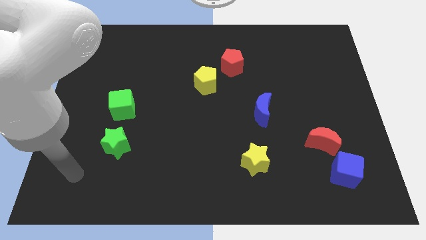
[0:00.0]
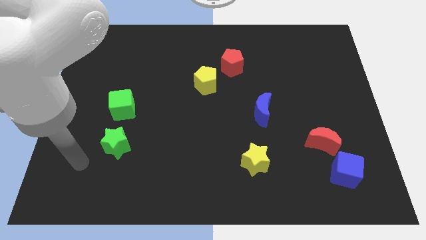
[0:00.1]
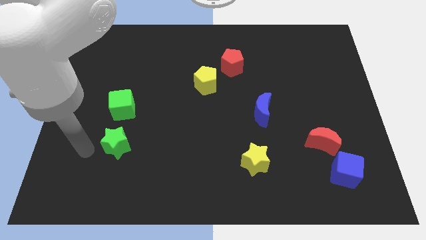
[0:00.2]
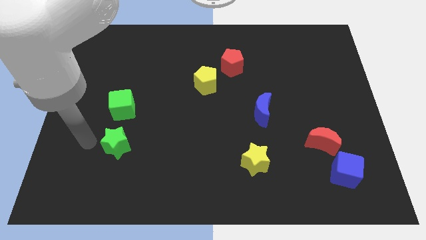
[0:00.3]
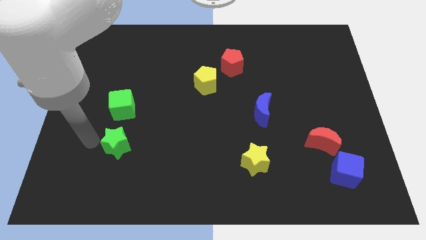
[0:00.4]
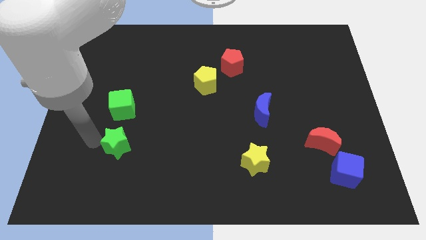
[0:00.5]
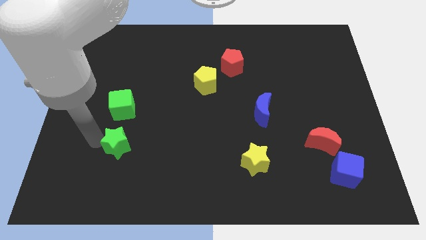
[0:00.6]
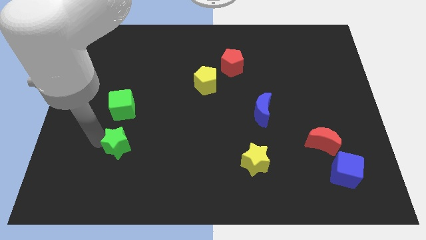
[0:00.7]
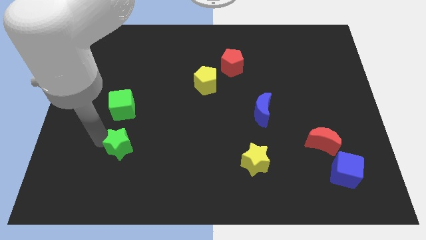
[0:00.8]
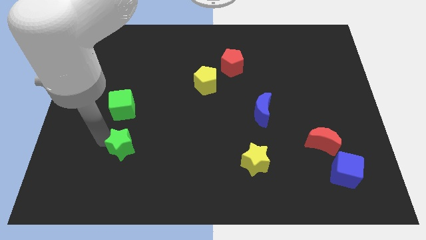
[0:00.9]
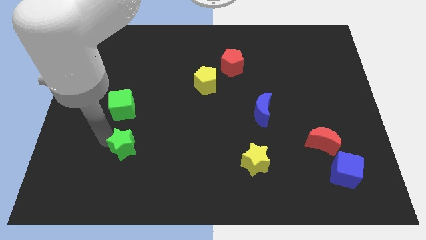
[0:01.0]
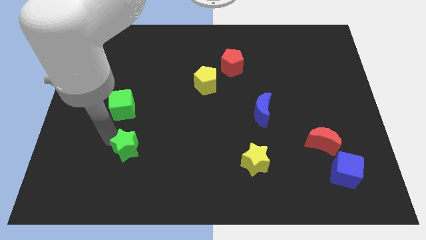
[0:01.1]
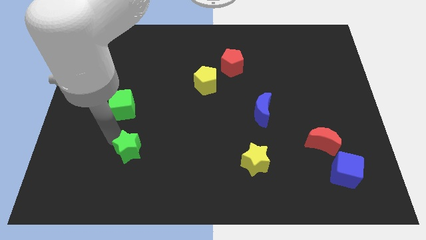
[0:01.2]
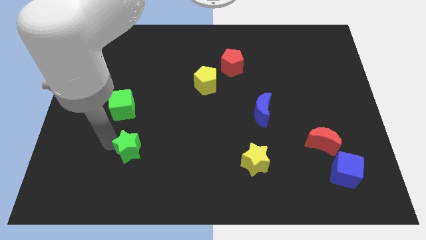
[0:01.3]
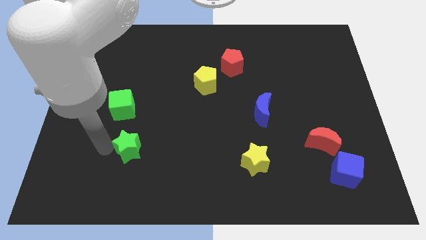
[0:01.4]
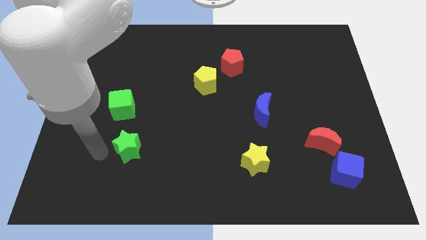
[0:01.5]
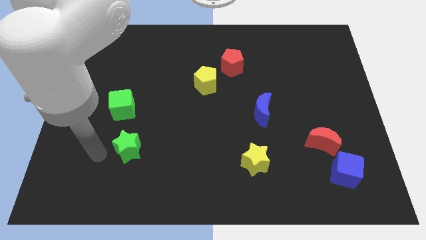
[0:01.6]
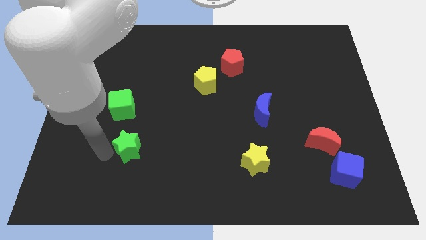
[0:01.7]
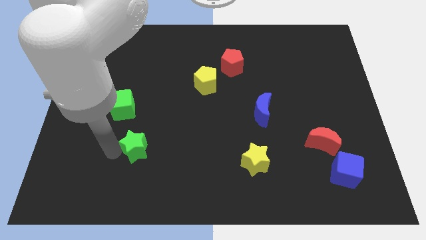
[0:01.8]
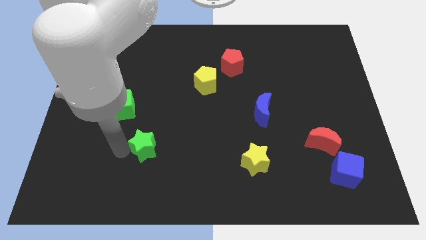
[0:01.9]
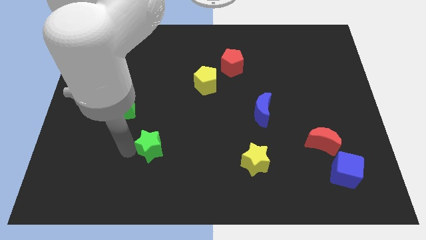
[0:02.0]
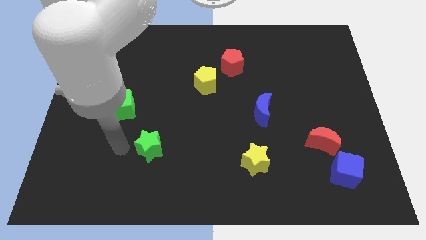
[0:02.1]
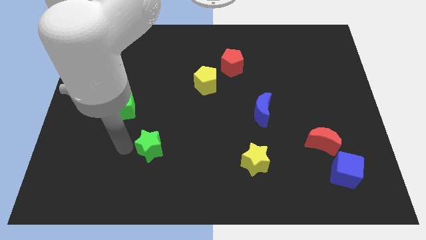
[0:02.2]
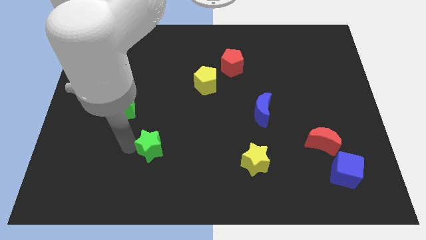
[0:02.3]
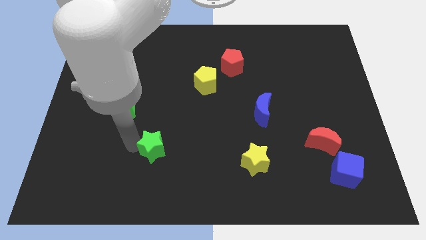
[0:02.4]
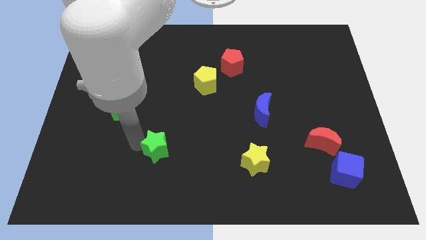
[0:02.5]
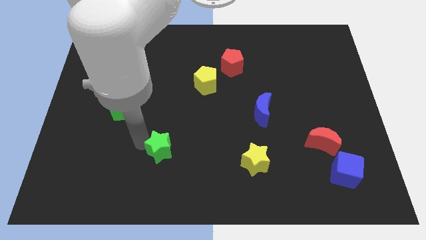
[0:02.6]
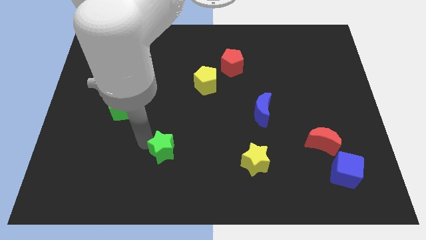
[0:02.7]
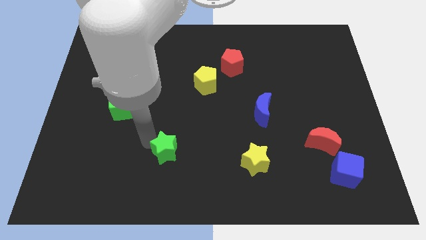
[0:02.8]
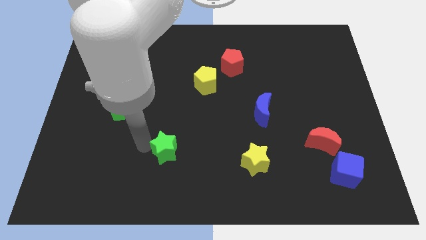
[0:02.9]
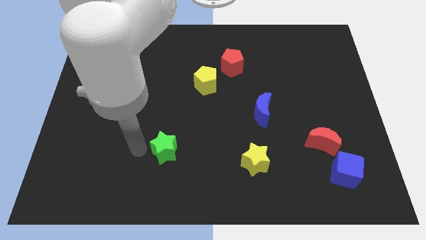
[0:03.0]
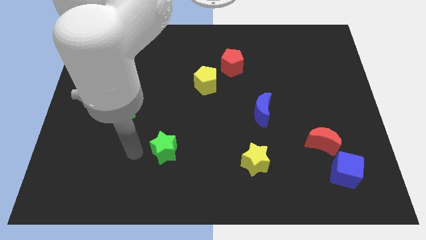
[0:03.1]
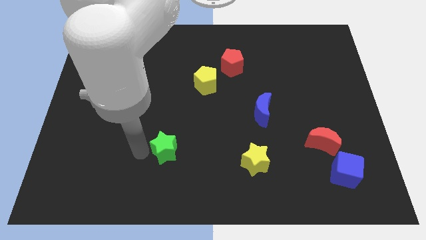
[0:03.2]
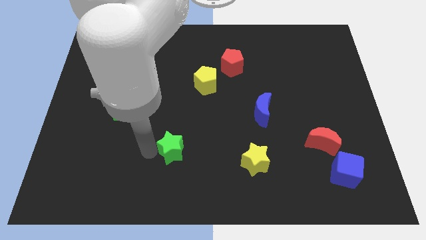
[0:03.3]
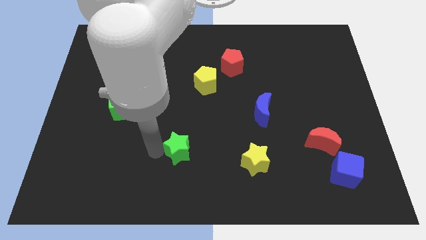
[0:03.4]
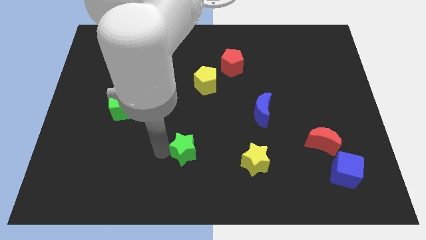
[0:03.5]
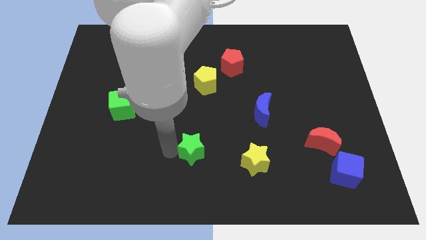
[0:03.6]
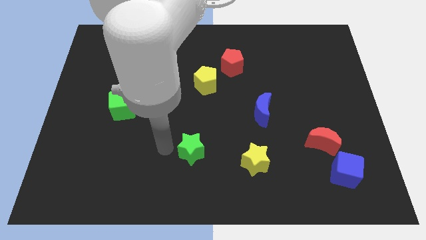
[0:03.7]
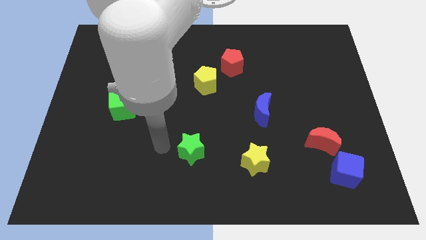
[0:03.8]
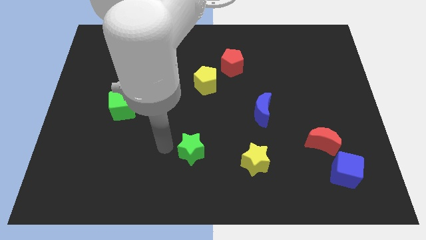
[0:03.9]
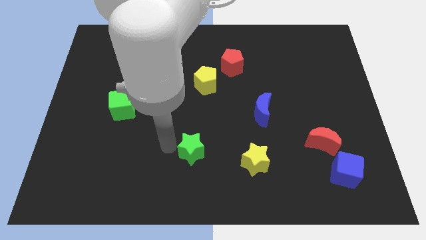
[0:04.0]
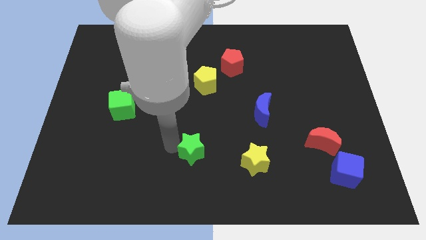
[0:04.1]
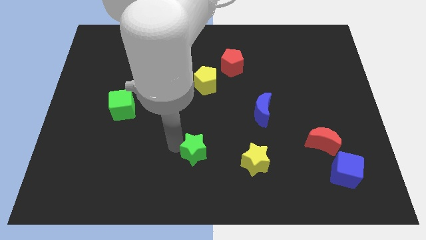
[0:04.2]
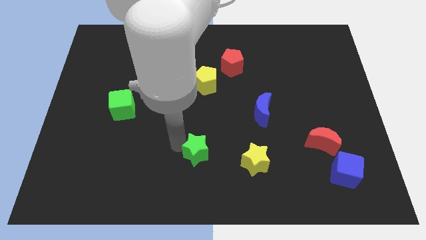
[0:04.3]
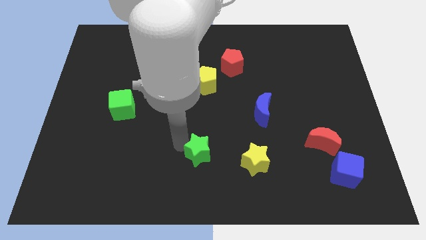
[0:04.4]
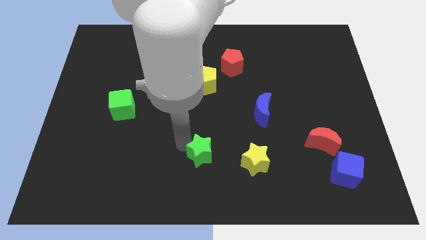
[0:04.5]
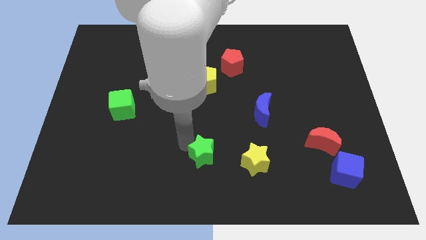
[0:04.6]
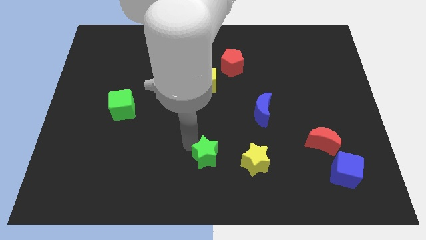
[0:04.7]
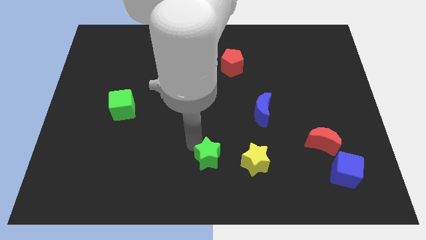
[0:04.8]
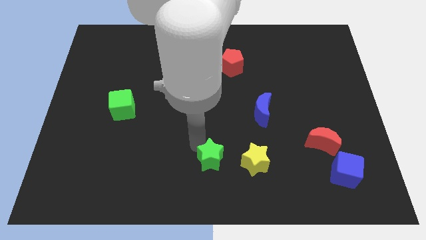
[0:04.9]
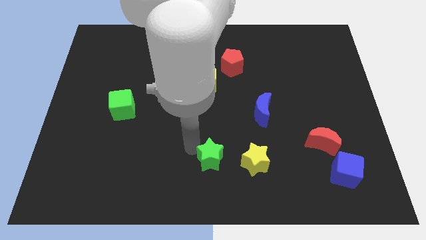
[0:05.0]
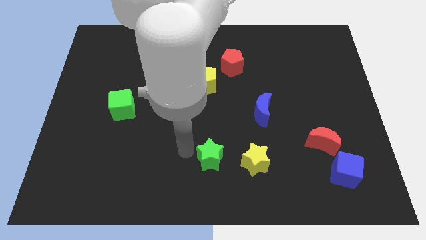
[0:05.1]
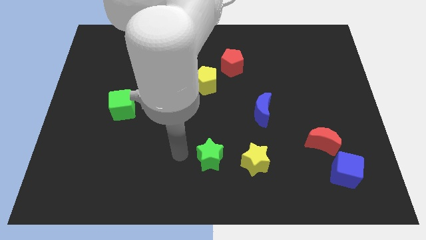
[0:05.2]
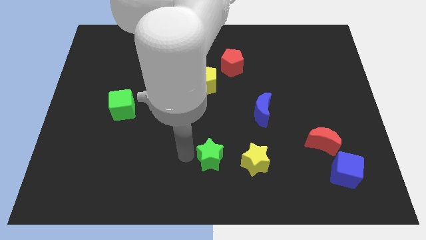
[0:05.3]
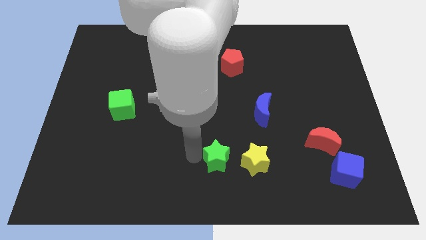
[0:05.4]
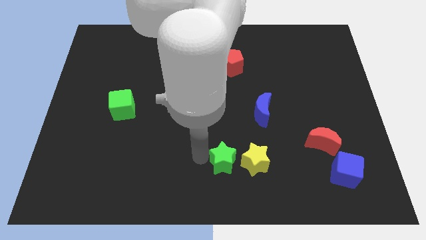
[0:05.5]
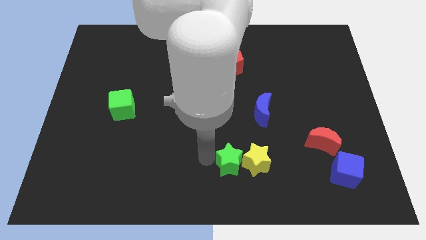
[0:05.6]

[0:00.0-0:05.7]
move the green star to the yellow star

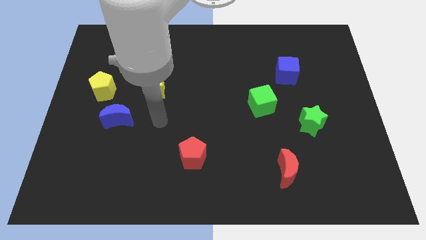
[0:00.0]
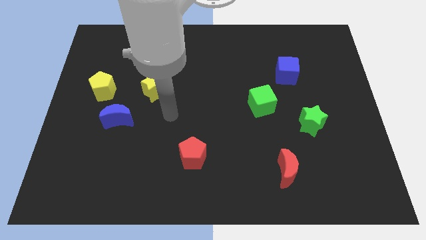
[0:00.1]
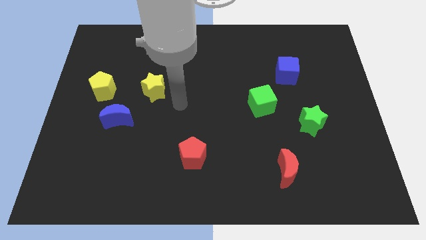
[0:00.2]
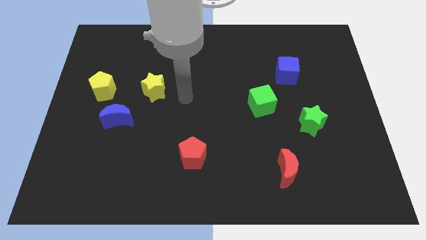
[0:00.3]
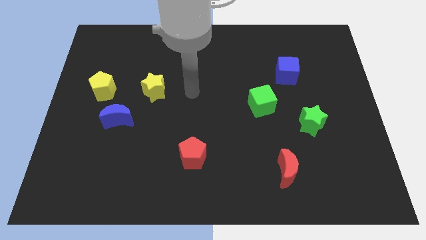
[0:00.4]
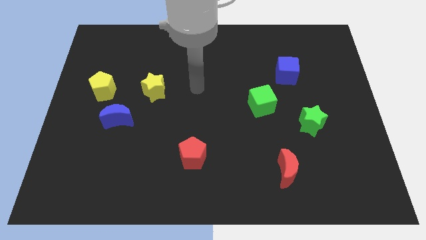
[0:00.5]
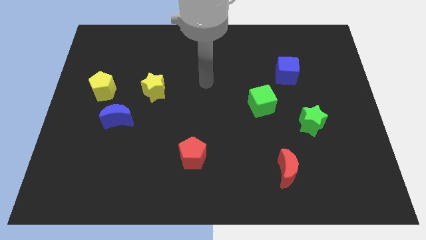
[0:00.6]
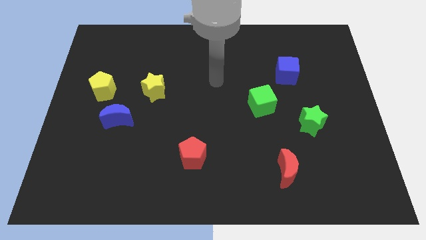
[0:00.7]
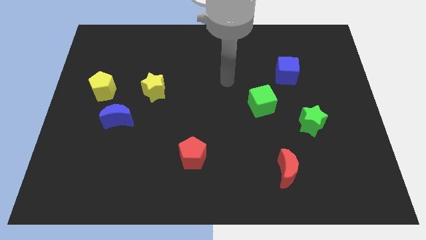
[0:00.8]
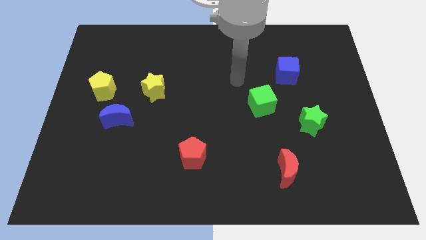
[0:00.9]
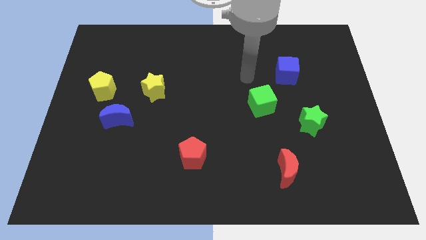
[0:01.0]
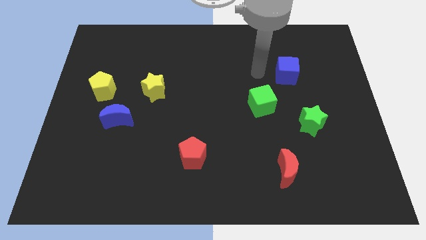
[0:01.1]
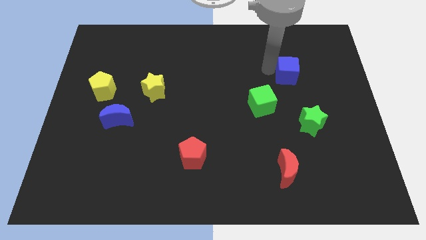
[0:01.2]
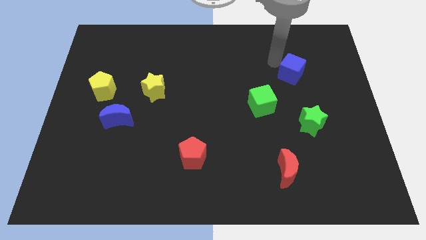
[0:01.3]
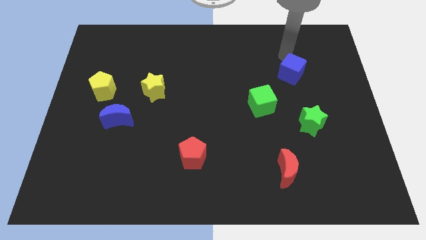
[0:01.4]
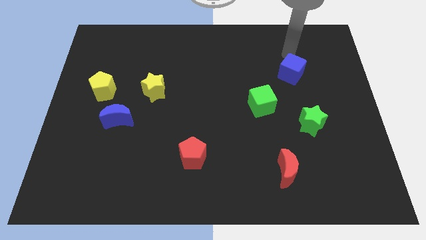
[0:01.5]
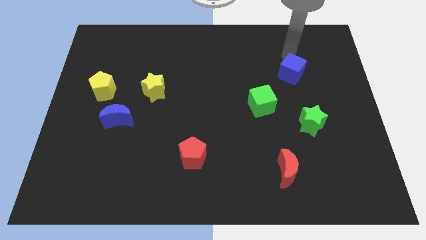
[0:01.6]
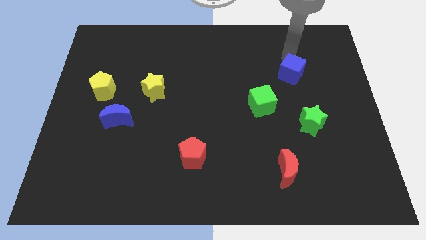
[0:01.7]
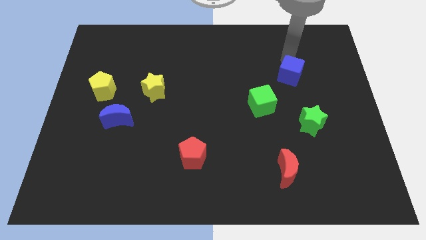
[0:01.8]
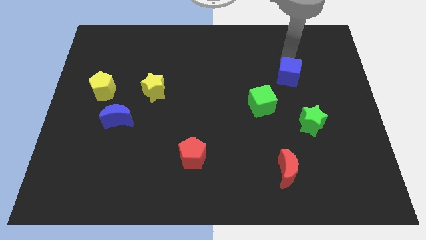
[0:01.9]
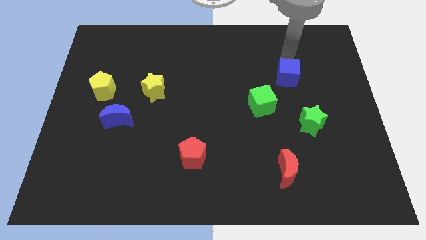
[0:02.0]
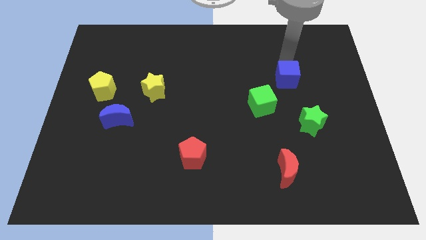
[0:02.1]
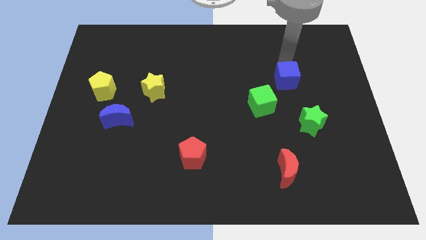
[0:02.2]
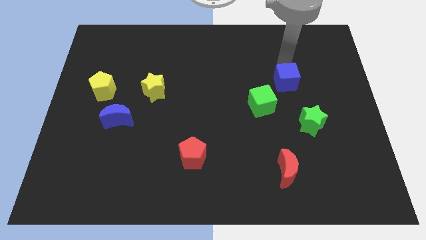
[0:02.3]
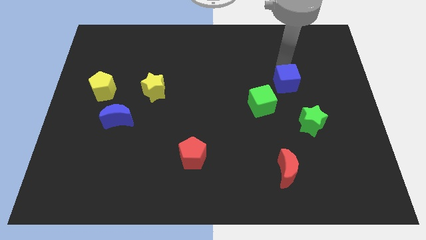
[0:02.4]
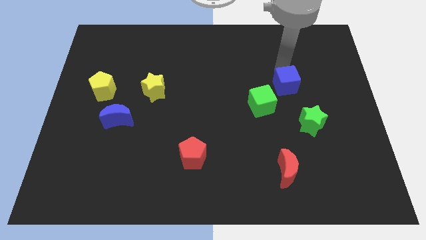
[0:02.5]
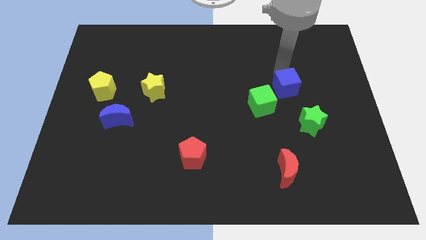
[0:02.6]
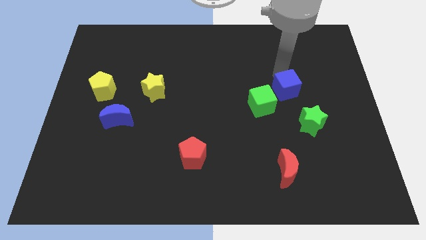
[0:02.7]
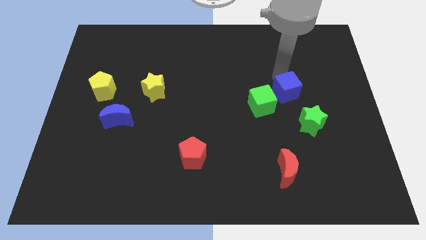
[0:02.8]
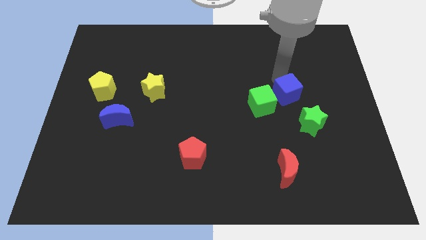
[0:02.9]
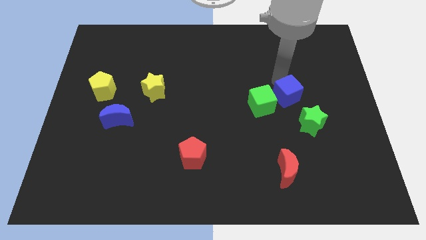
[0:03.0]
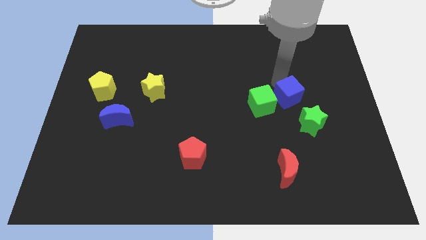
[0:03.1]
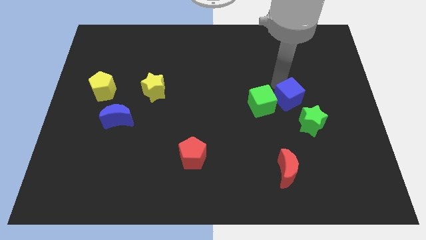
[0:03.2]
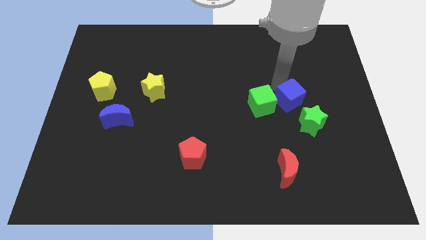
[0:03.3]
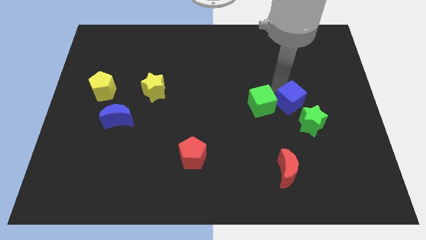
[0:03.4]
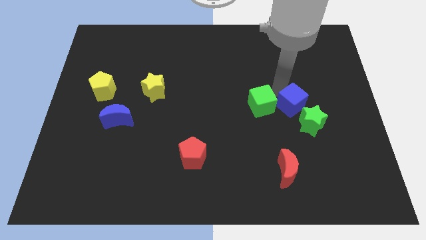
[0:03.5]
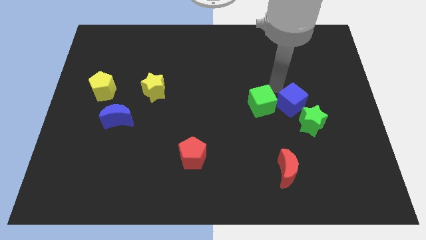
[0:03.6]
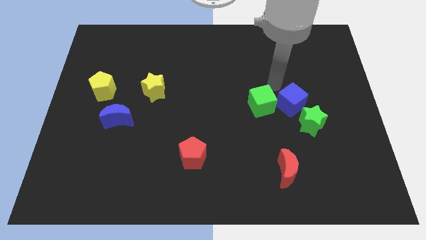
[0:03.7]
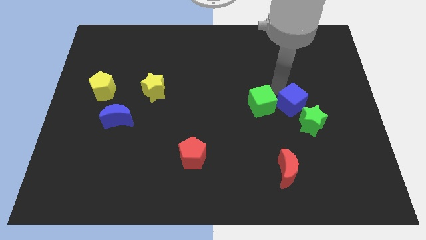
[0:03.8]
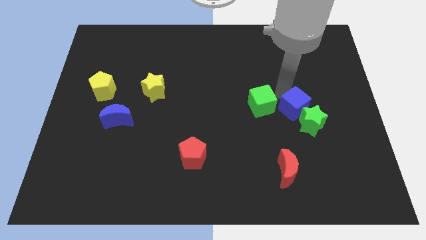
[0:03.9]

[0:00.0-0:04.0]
push the blue cube to the green star
